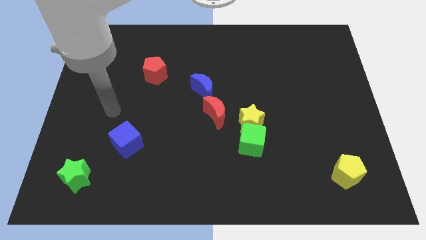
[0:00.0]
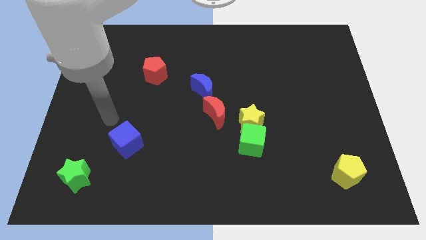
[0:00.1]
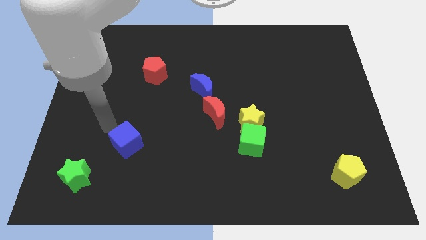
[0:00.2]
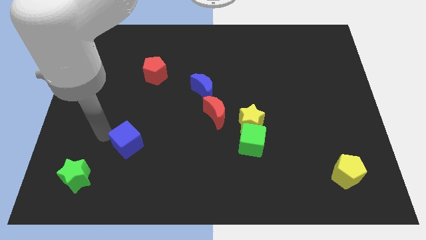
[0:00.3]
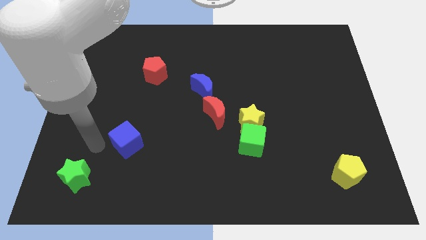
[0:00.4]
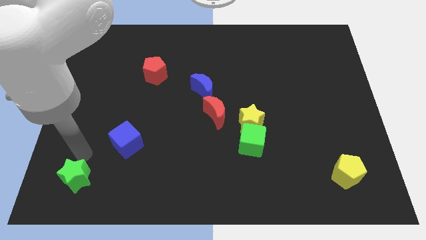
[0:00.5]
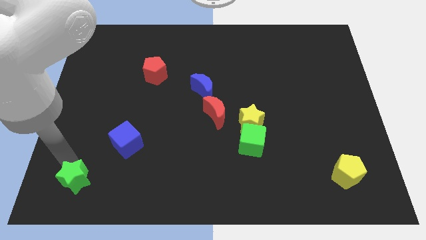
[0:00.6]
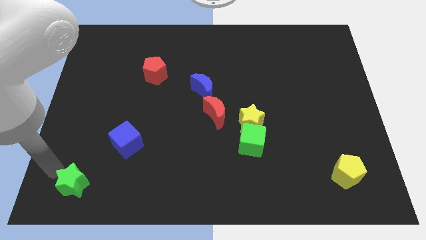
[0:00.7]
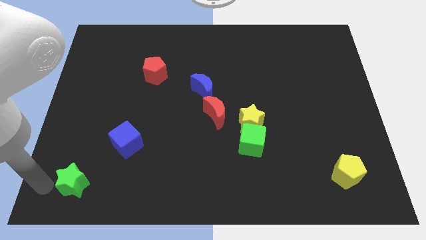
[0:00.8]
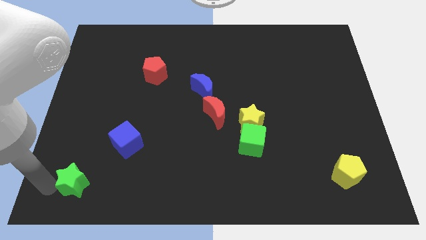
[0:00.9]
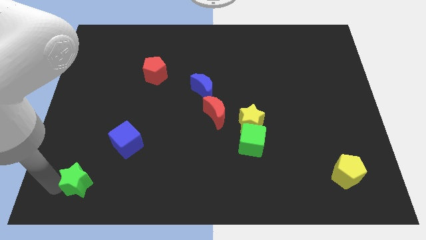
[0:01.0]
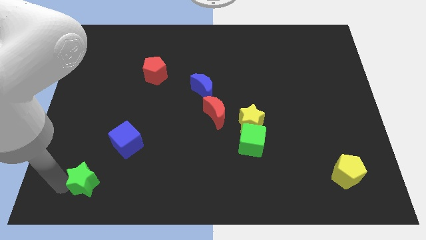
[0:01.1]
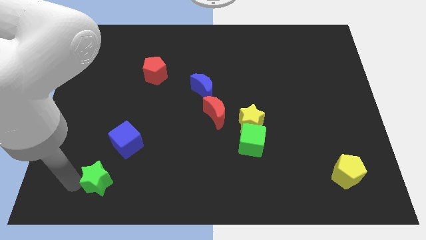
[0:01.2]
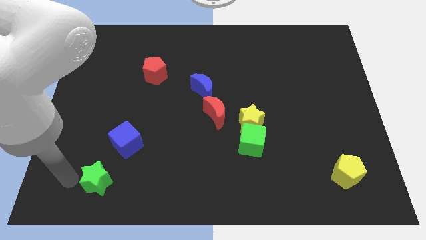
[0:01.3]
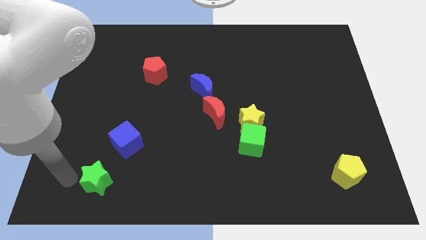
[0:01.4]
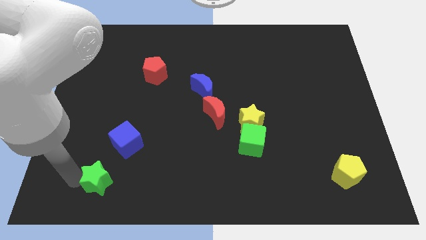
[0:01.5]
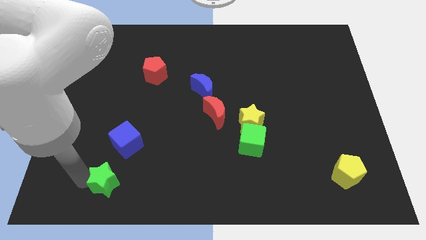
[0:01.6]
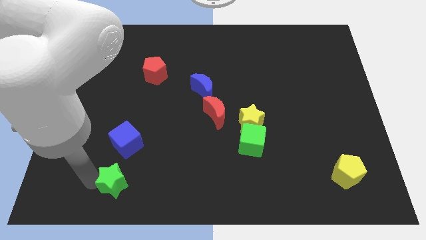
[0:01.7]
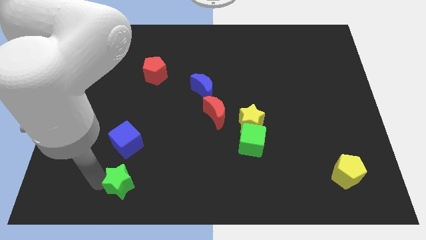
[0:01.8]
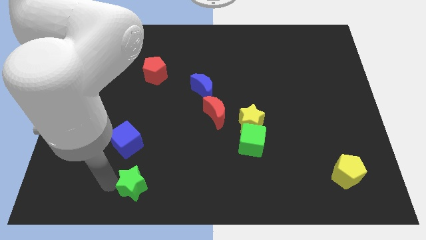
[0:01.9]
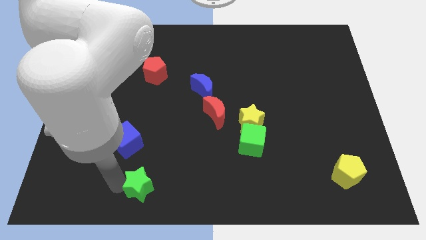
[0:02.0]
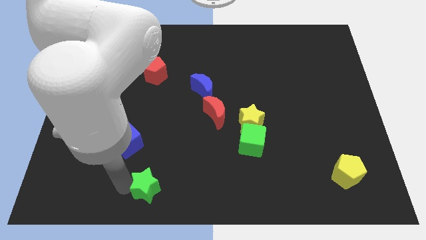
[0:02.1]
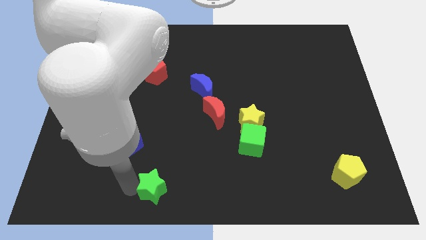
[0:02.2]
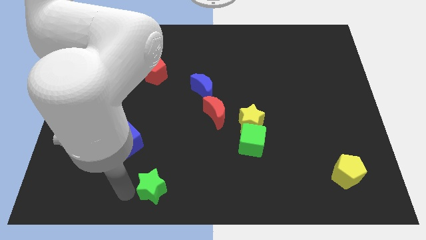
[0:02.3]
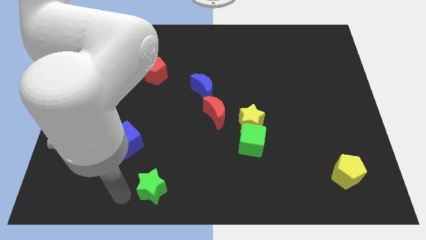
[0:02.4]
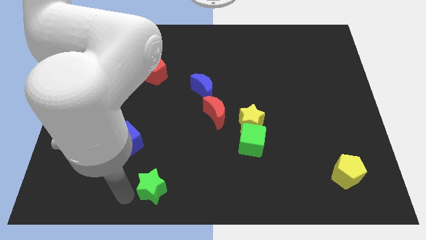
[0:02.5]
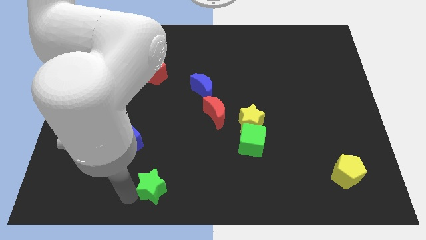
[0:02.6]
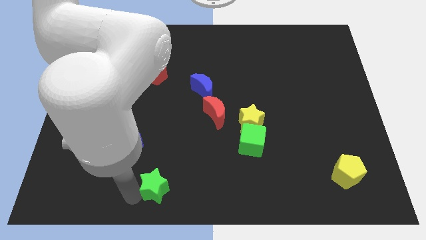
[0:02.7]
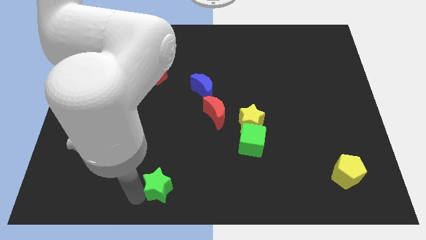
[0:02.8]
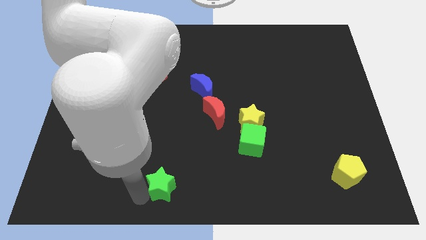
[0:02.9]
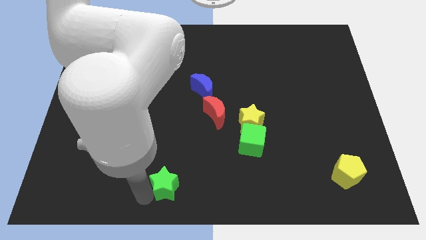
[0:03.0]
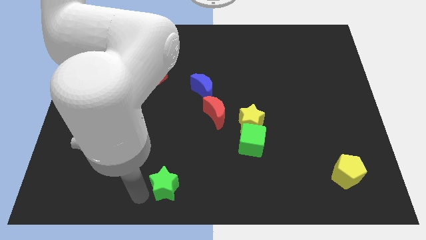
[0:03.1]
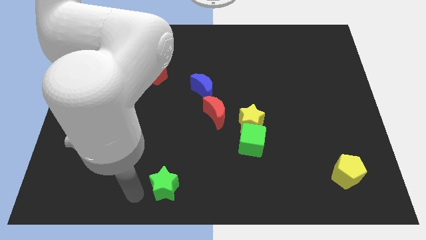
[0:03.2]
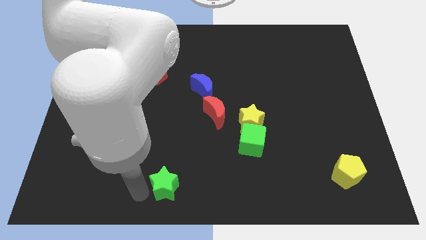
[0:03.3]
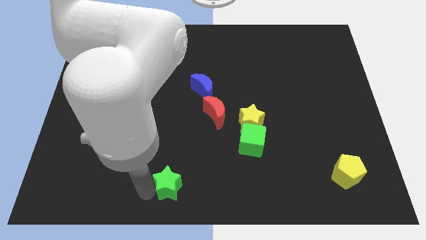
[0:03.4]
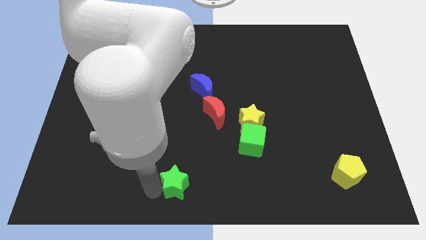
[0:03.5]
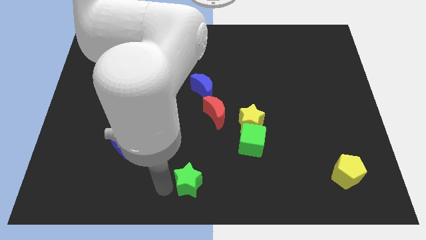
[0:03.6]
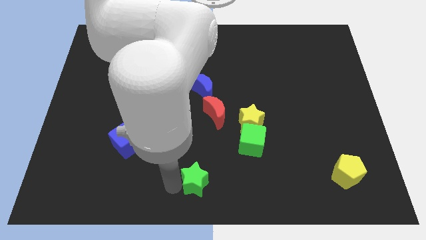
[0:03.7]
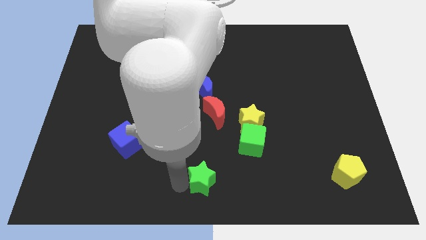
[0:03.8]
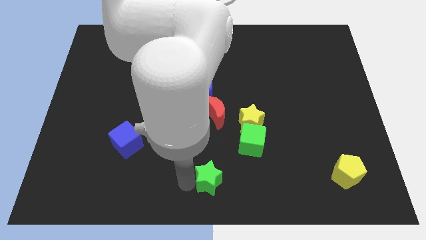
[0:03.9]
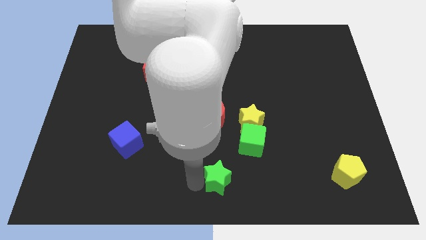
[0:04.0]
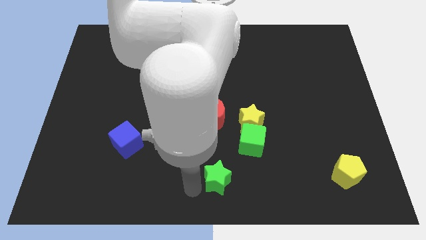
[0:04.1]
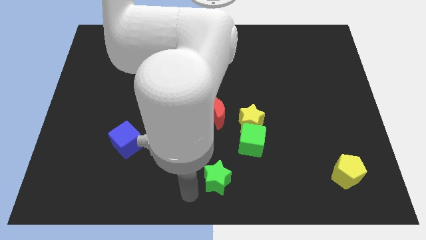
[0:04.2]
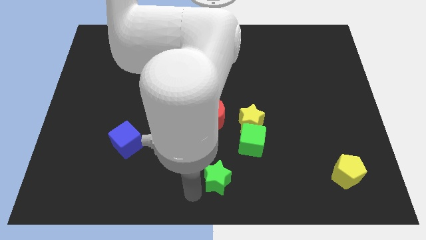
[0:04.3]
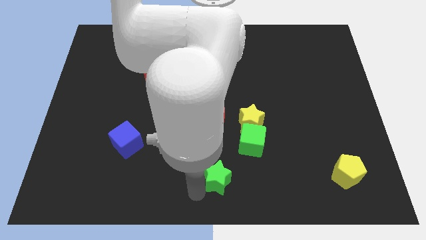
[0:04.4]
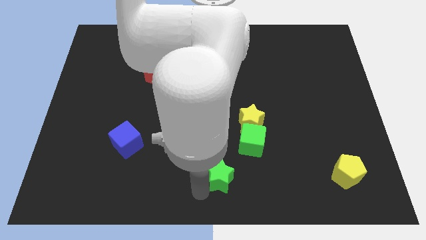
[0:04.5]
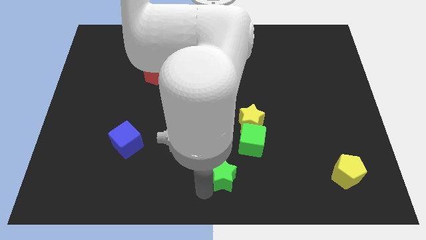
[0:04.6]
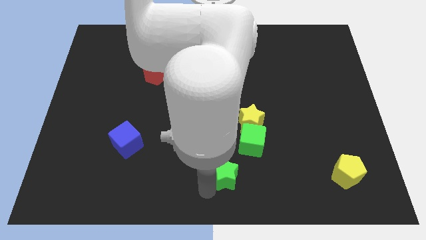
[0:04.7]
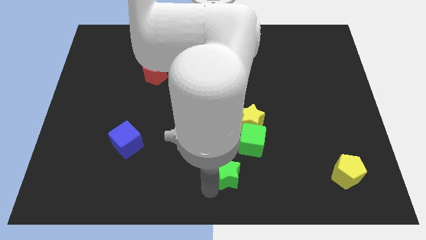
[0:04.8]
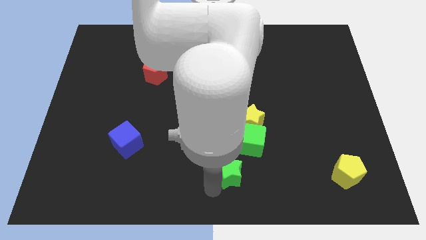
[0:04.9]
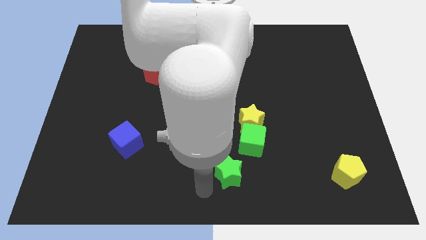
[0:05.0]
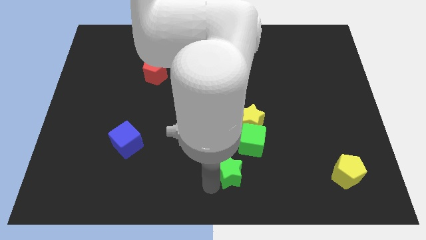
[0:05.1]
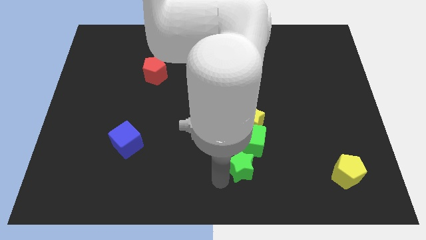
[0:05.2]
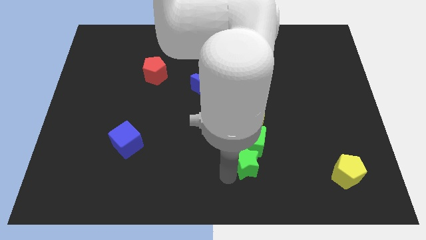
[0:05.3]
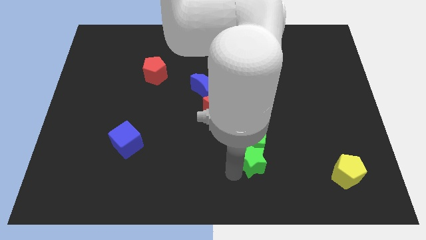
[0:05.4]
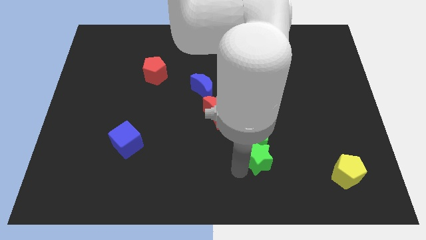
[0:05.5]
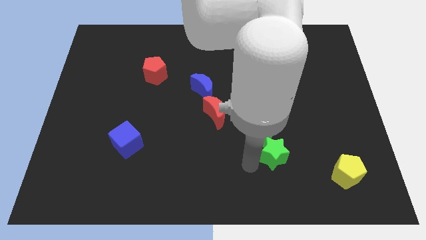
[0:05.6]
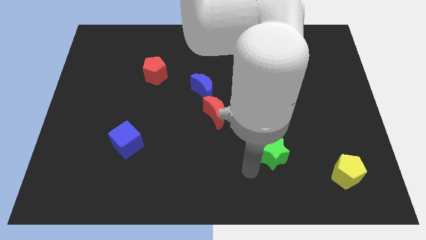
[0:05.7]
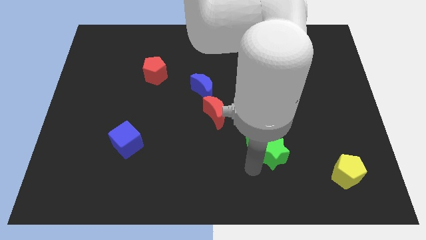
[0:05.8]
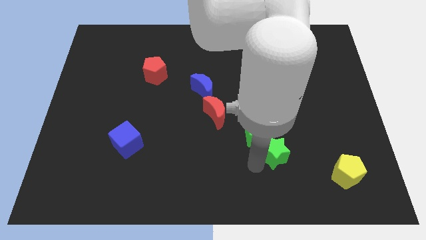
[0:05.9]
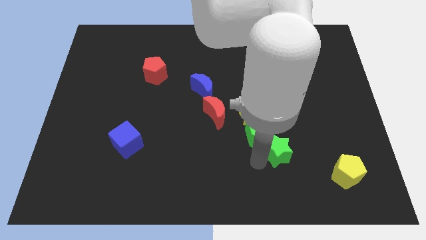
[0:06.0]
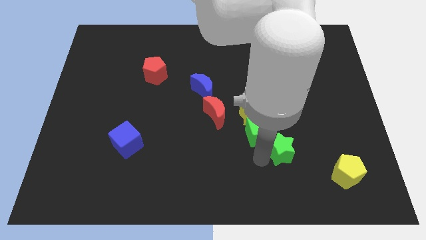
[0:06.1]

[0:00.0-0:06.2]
push the green star right of the green cube
